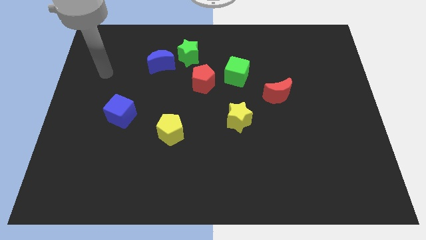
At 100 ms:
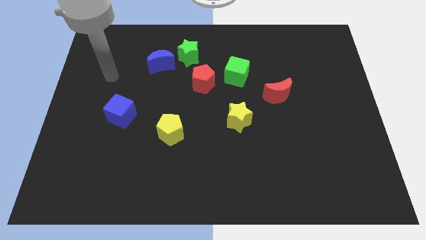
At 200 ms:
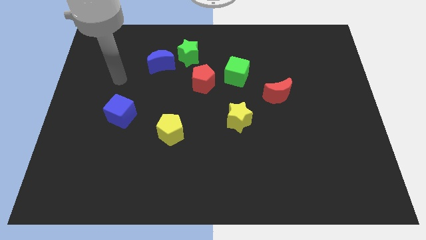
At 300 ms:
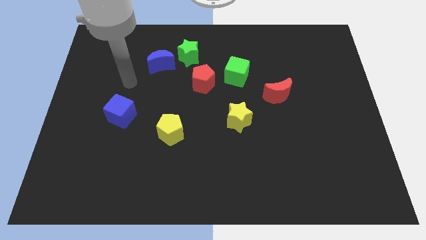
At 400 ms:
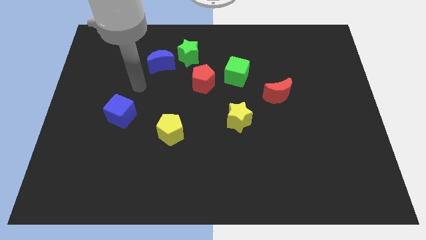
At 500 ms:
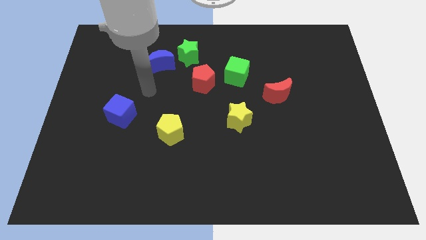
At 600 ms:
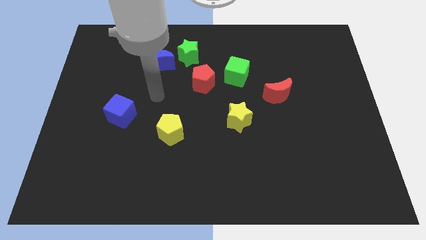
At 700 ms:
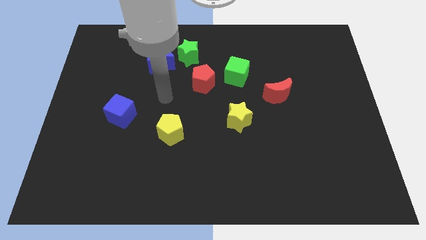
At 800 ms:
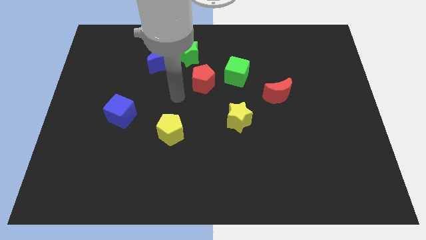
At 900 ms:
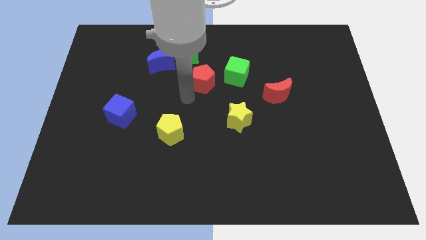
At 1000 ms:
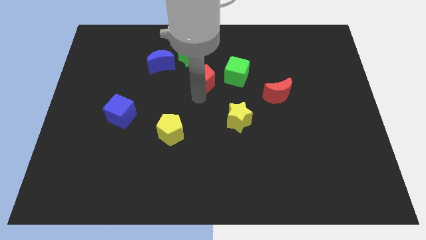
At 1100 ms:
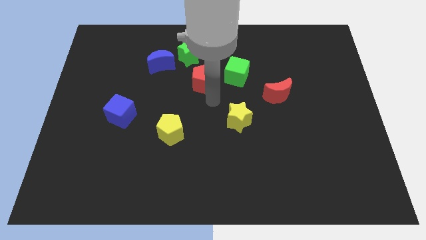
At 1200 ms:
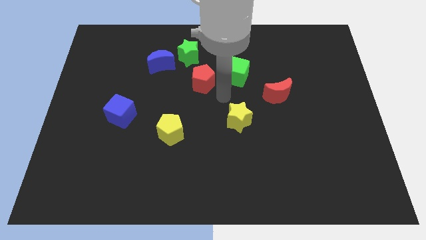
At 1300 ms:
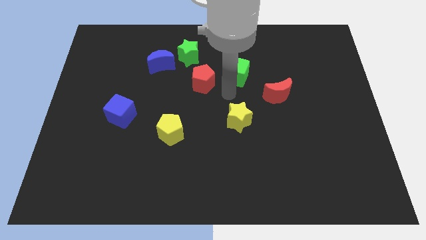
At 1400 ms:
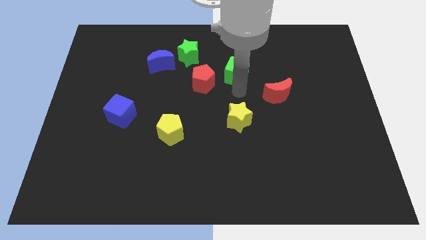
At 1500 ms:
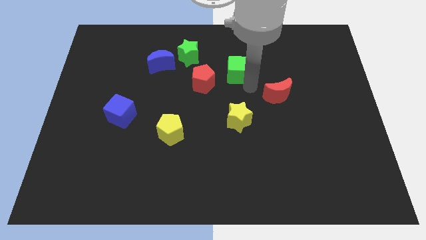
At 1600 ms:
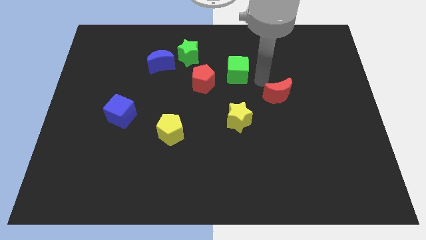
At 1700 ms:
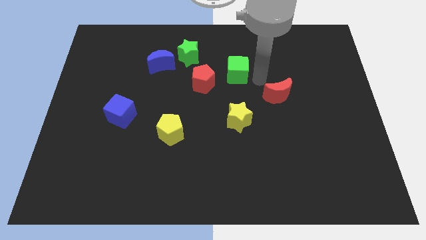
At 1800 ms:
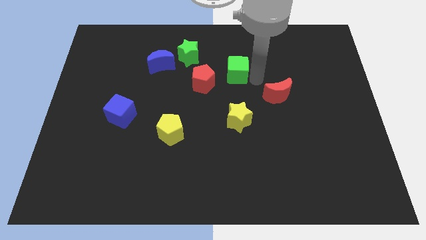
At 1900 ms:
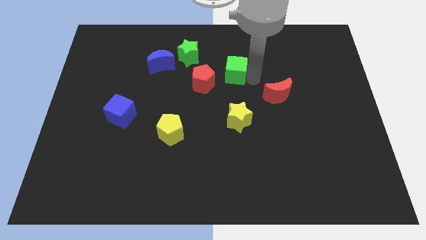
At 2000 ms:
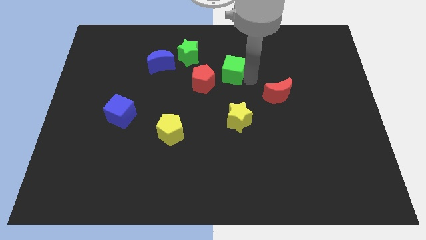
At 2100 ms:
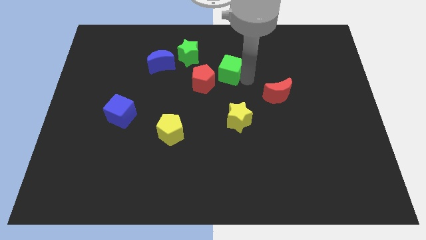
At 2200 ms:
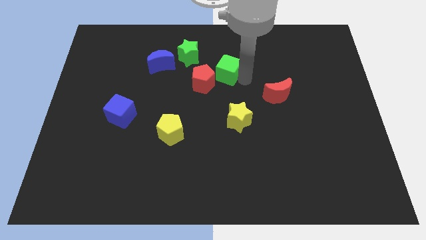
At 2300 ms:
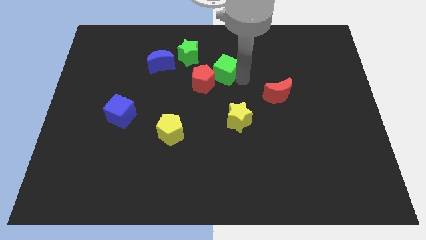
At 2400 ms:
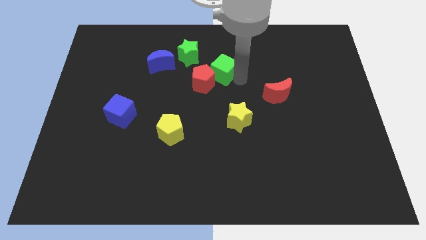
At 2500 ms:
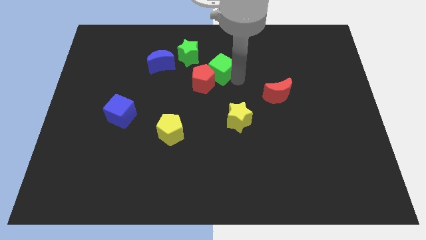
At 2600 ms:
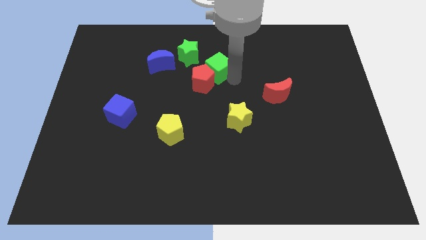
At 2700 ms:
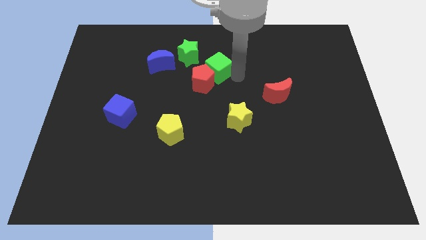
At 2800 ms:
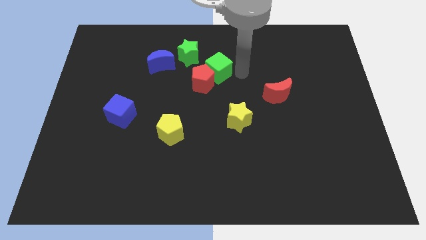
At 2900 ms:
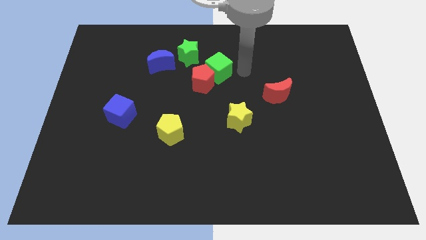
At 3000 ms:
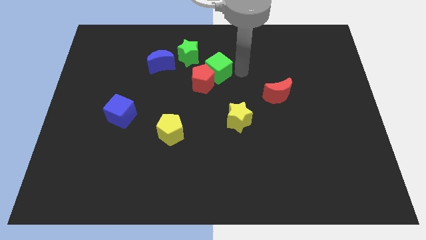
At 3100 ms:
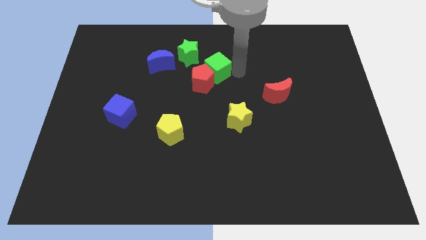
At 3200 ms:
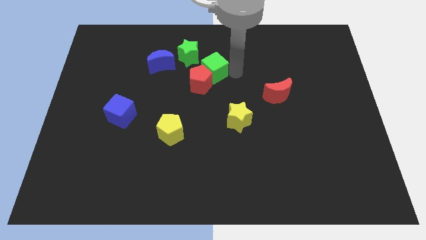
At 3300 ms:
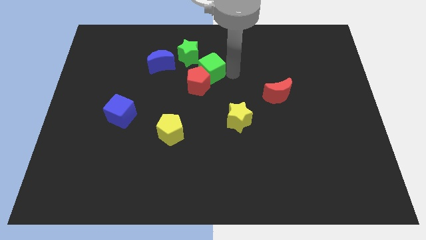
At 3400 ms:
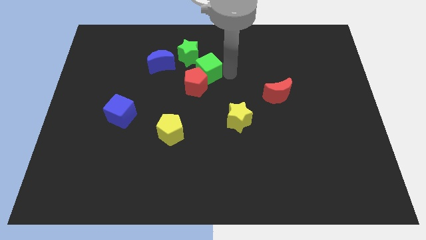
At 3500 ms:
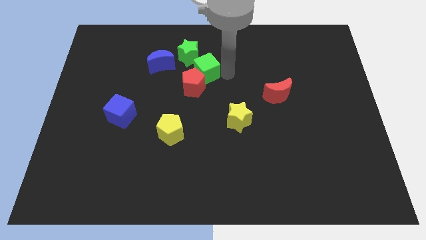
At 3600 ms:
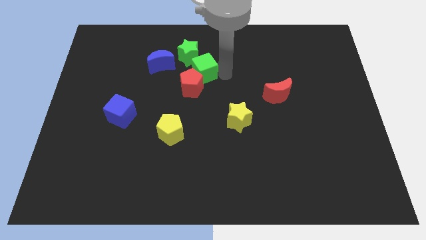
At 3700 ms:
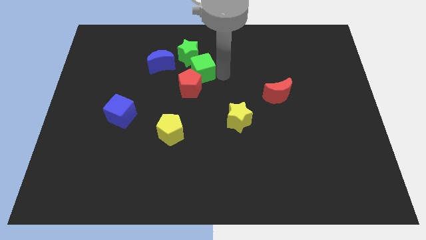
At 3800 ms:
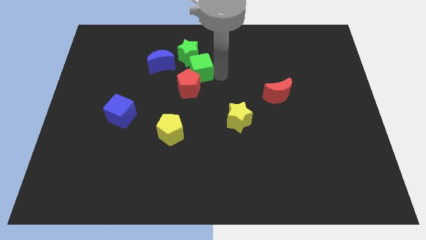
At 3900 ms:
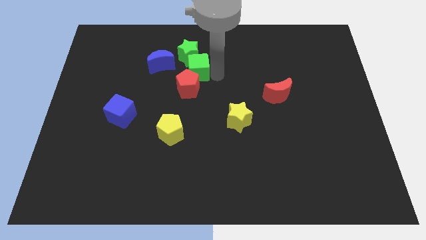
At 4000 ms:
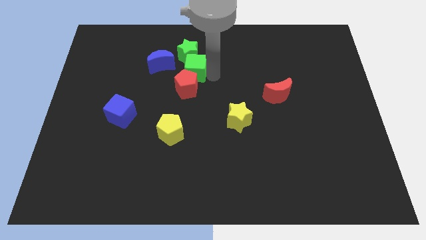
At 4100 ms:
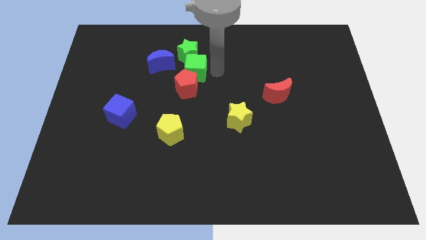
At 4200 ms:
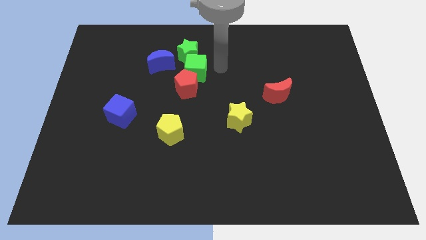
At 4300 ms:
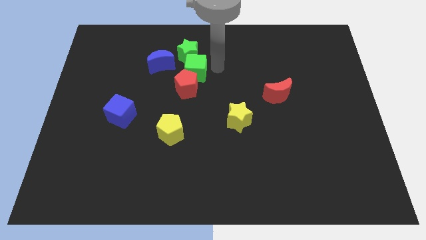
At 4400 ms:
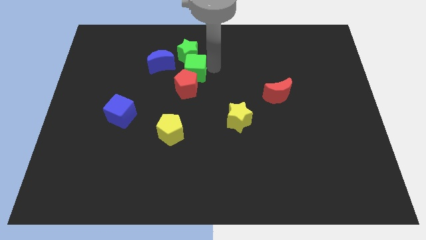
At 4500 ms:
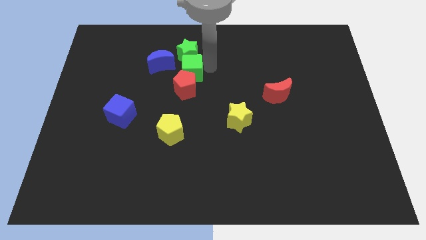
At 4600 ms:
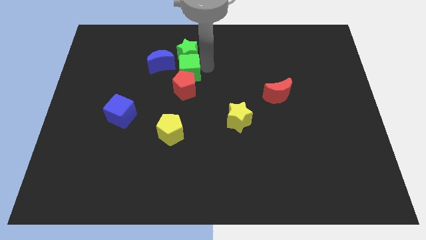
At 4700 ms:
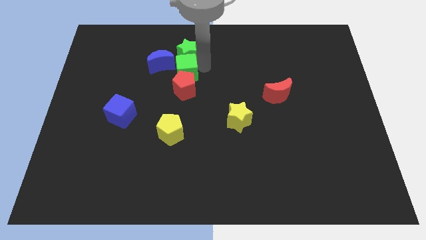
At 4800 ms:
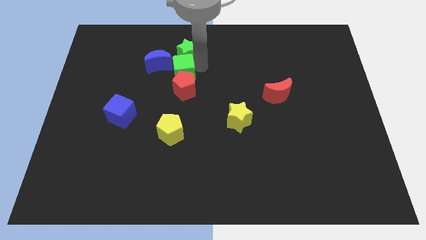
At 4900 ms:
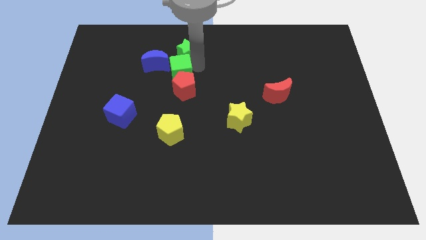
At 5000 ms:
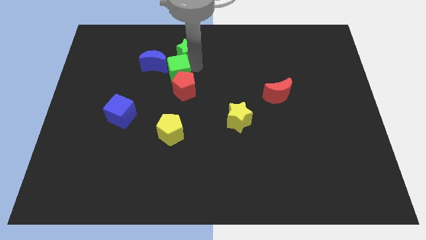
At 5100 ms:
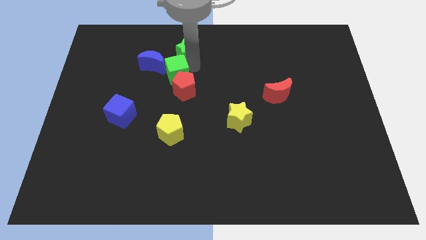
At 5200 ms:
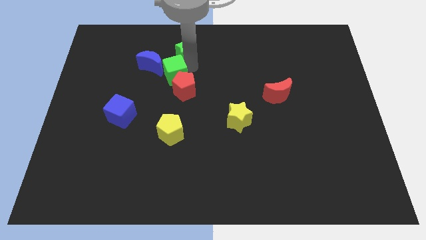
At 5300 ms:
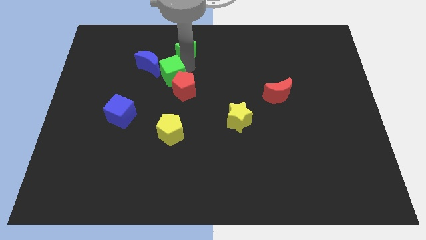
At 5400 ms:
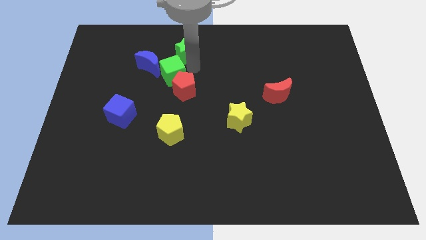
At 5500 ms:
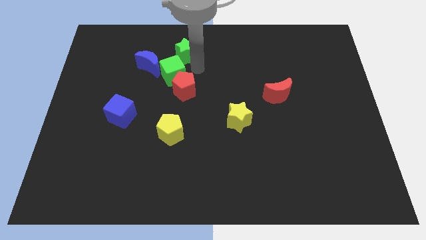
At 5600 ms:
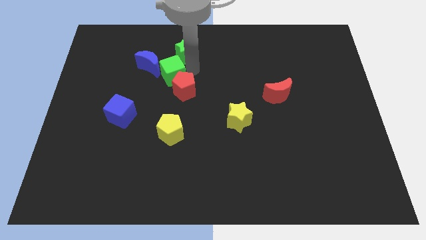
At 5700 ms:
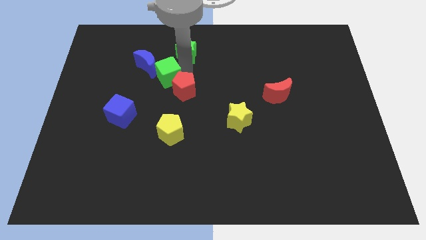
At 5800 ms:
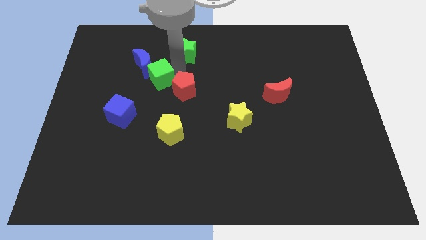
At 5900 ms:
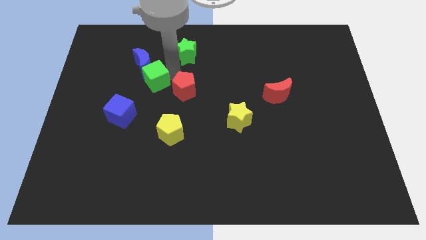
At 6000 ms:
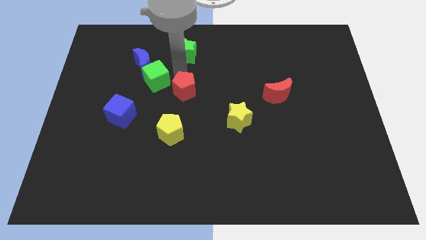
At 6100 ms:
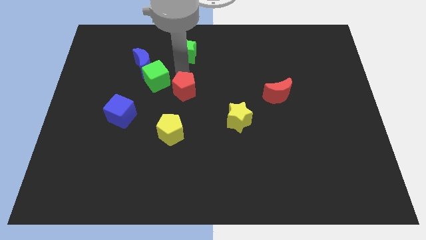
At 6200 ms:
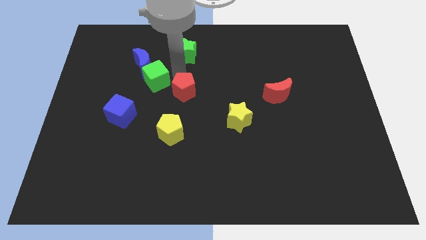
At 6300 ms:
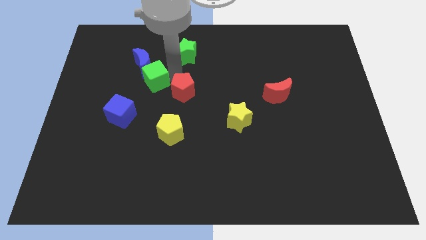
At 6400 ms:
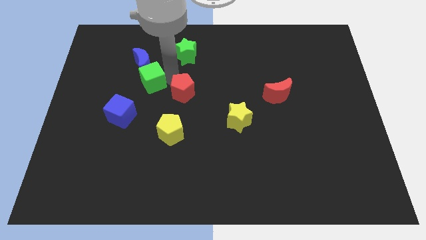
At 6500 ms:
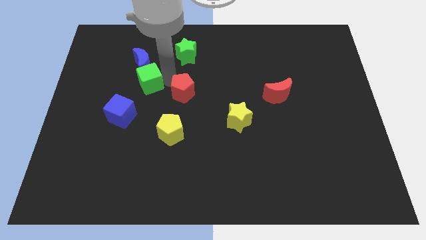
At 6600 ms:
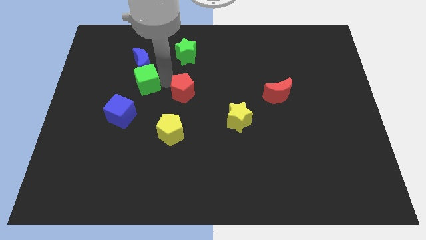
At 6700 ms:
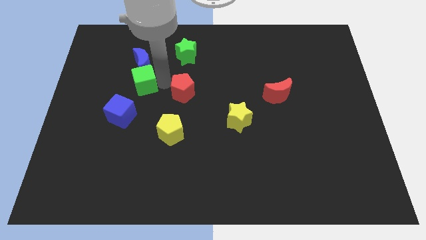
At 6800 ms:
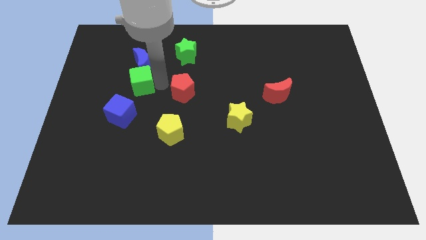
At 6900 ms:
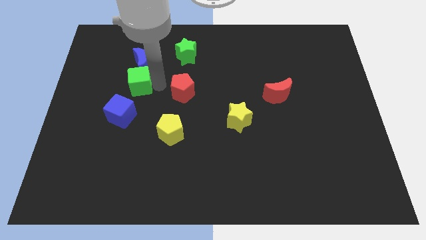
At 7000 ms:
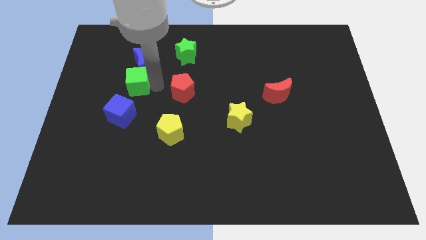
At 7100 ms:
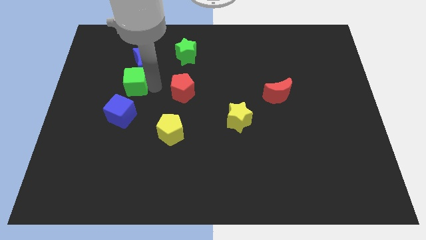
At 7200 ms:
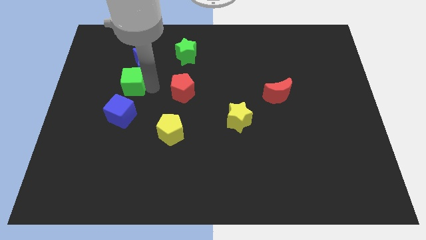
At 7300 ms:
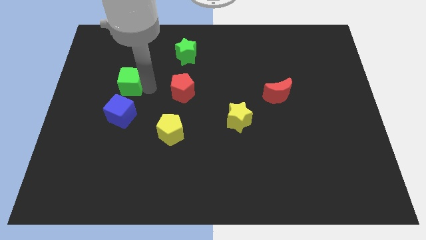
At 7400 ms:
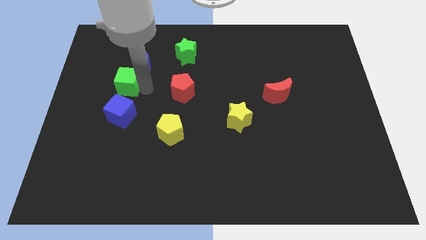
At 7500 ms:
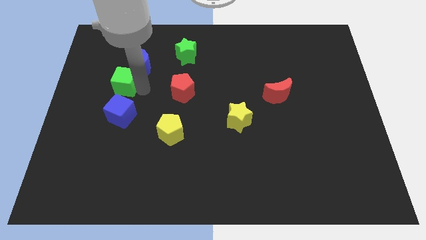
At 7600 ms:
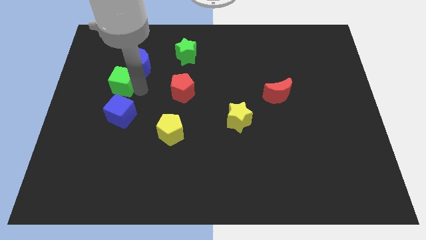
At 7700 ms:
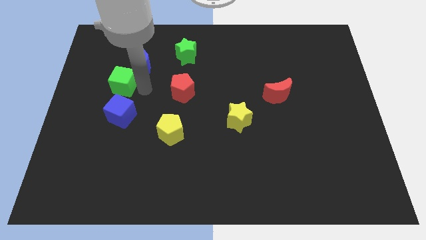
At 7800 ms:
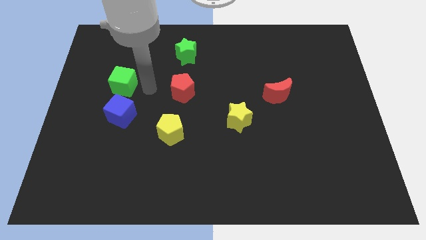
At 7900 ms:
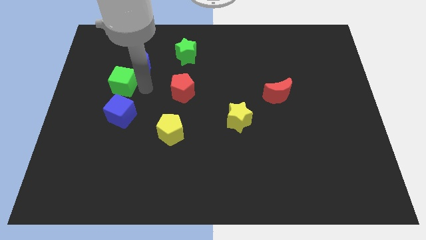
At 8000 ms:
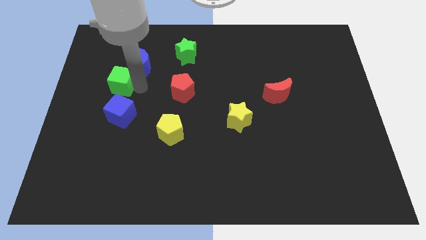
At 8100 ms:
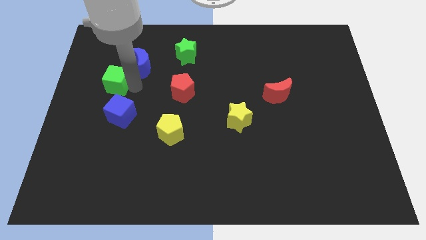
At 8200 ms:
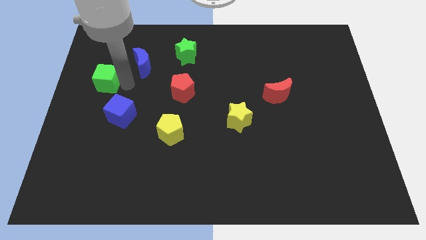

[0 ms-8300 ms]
move the green cube to the left side of the board

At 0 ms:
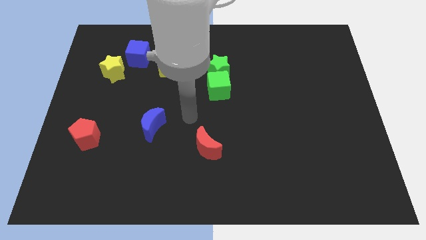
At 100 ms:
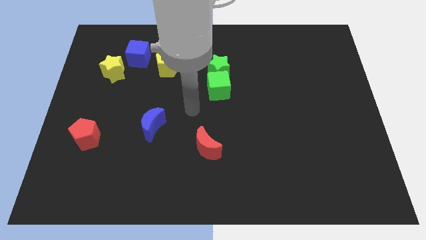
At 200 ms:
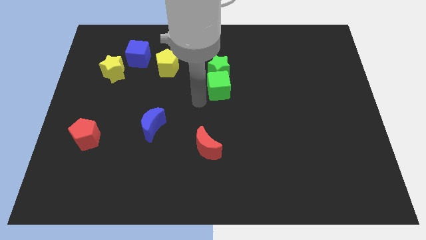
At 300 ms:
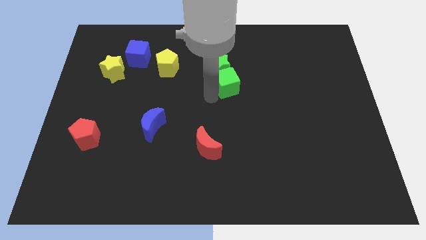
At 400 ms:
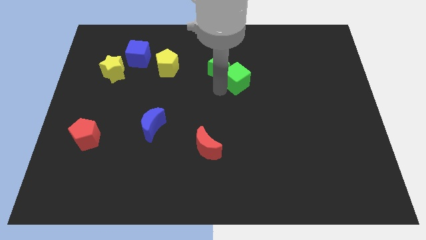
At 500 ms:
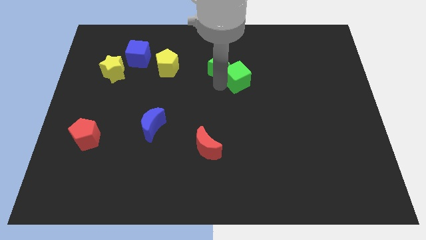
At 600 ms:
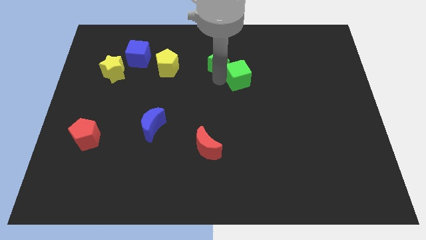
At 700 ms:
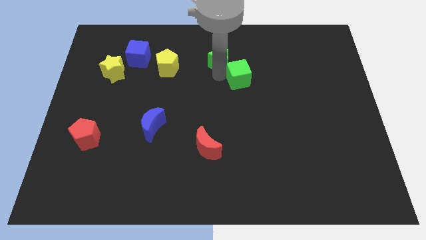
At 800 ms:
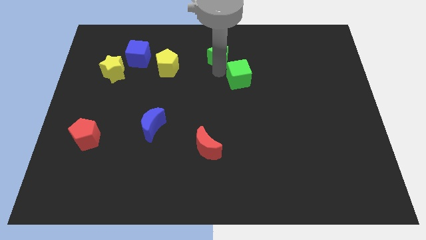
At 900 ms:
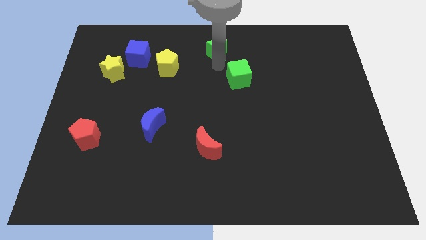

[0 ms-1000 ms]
move the green star to the top
